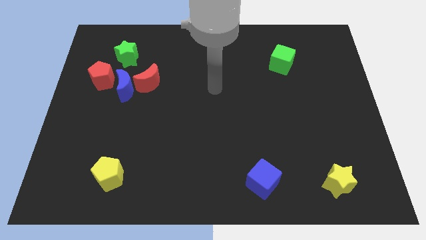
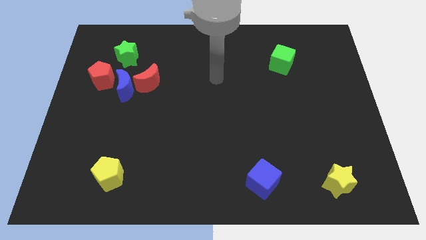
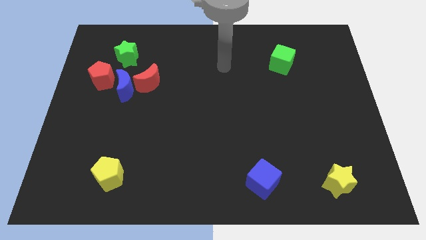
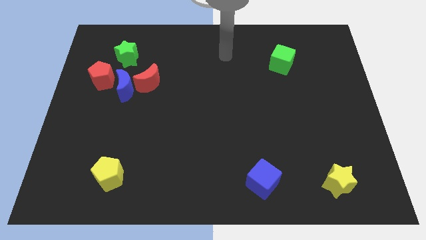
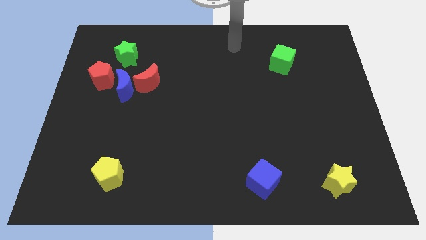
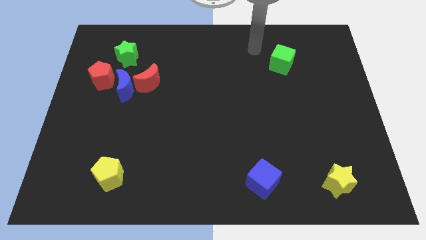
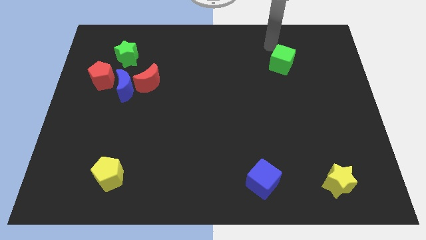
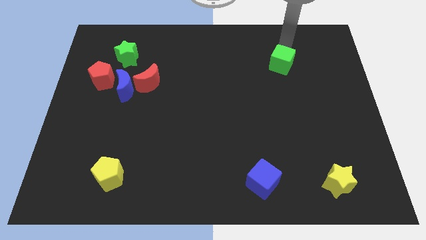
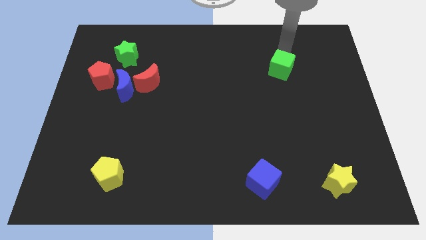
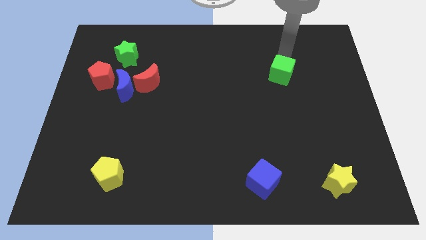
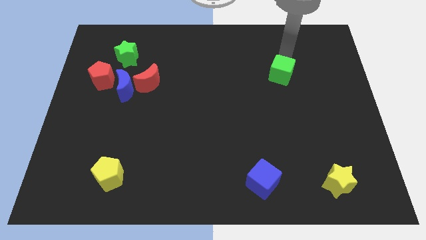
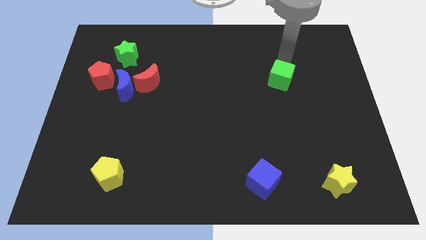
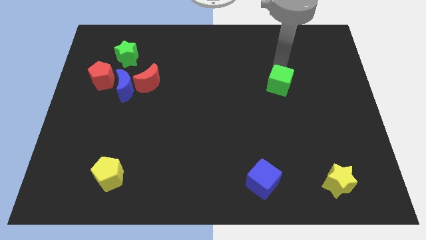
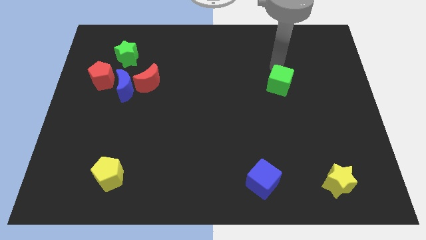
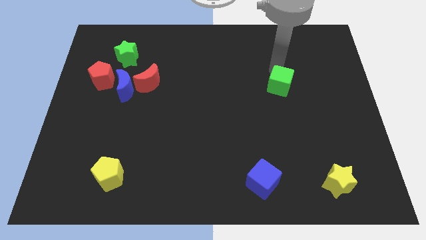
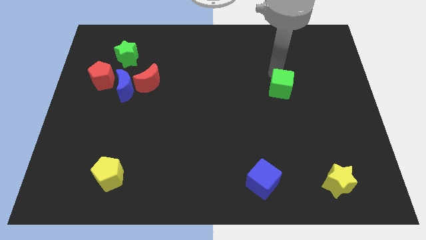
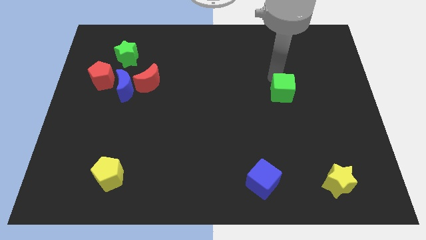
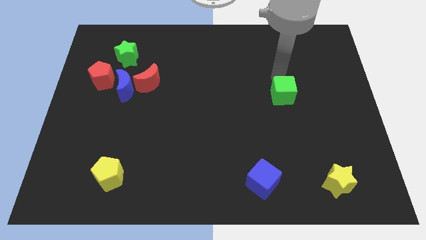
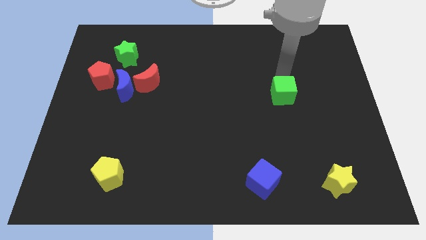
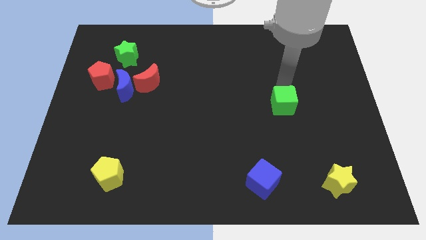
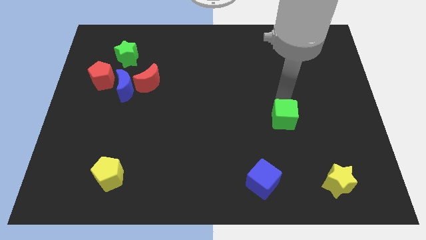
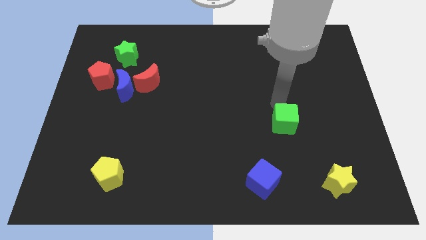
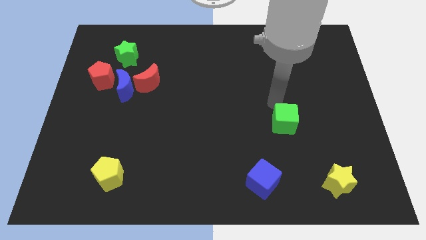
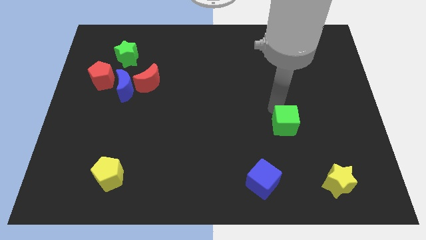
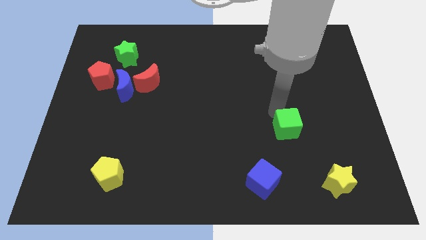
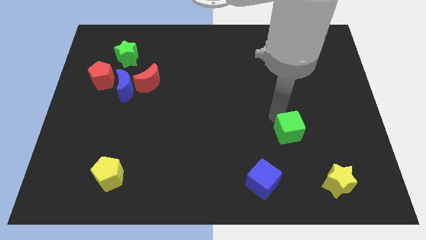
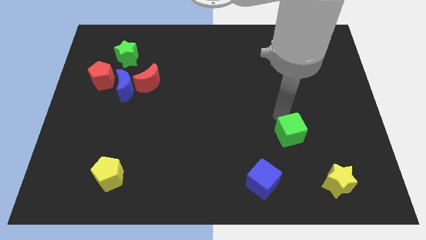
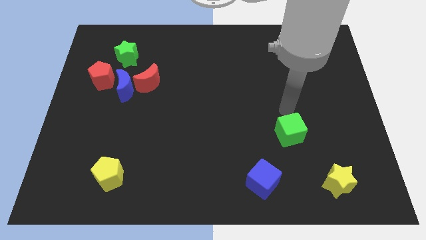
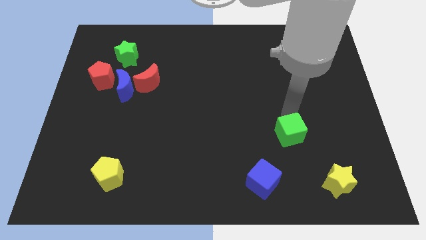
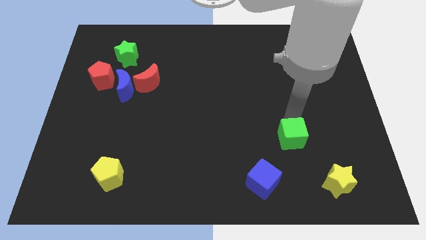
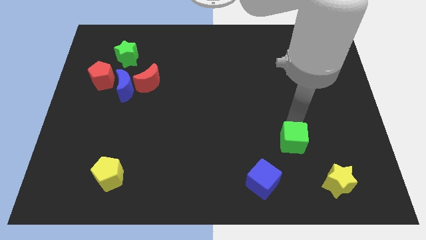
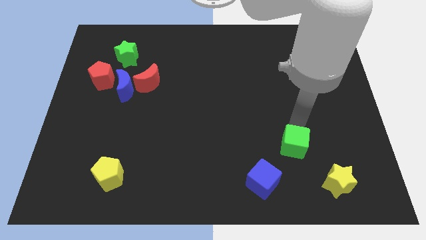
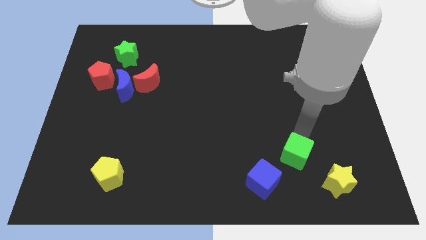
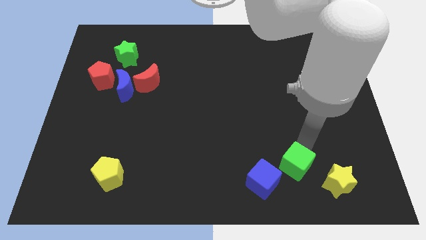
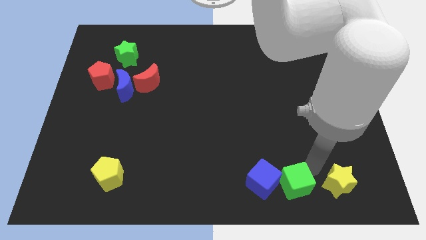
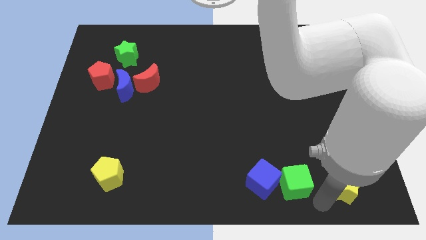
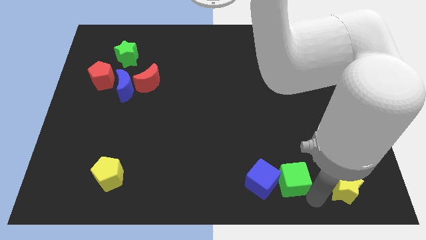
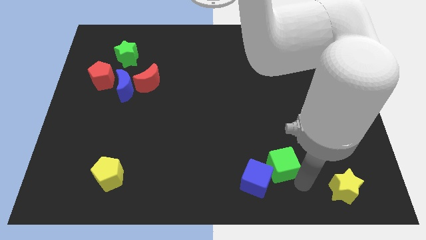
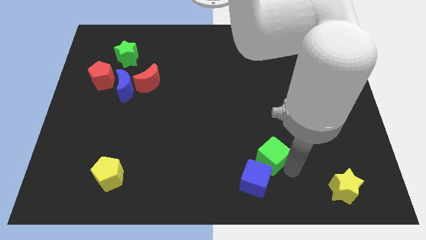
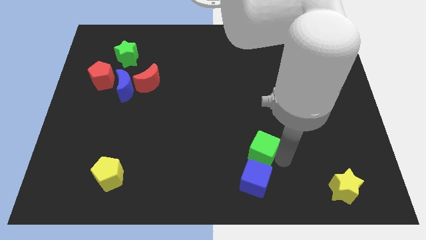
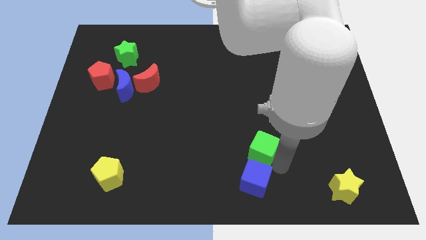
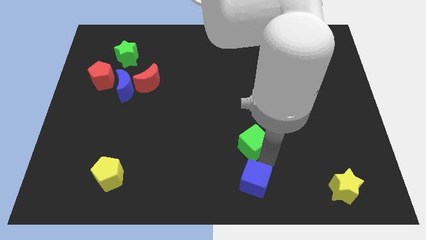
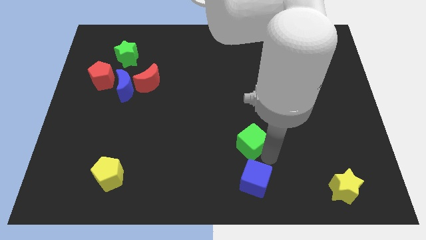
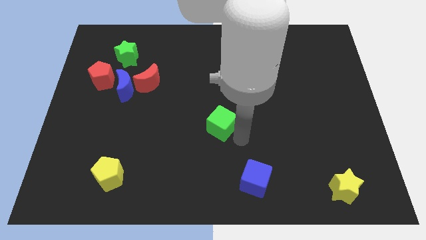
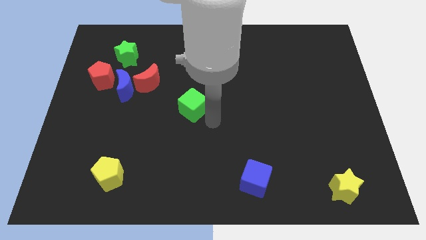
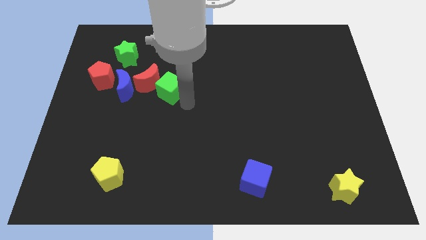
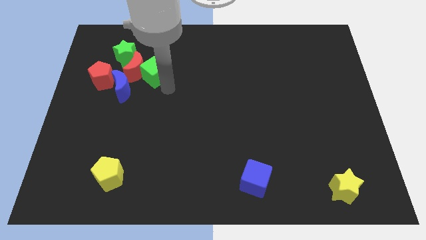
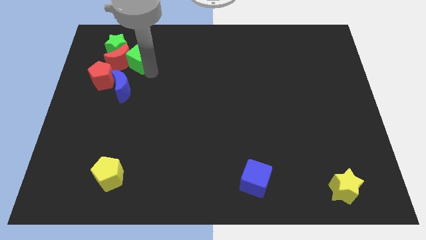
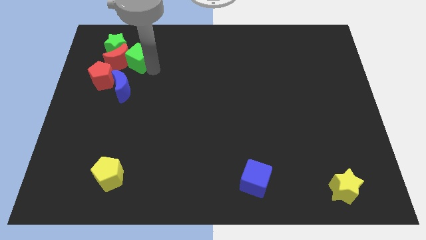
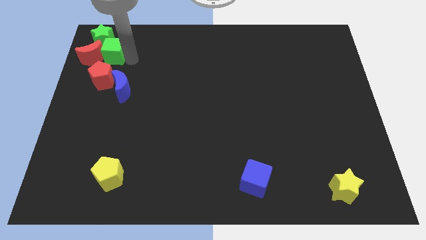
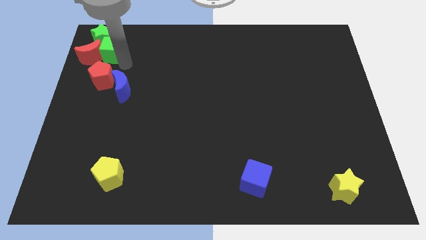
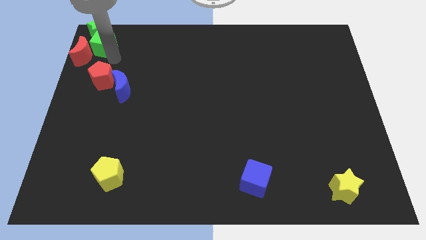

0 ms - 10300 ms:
move the green cube to the upper left corner

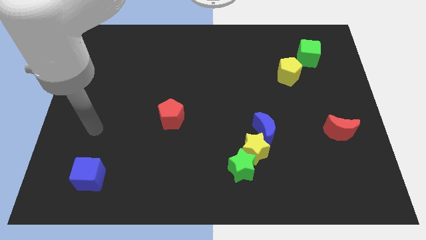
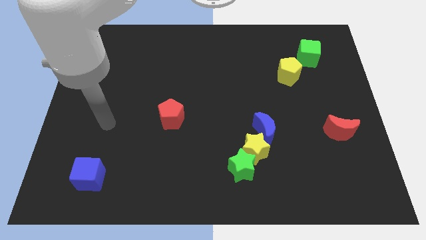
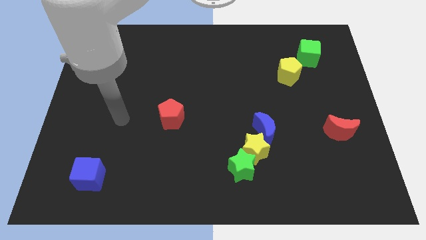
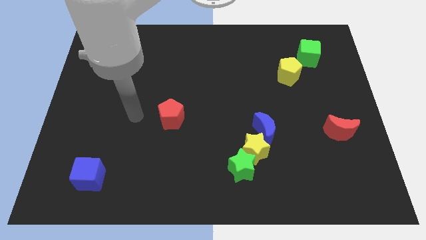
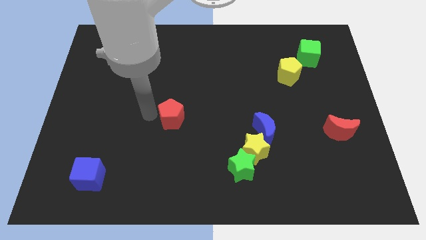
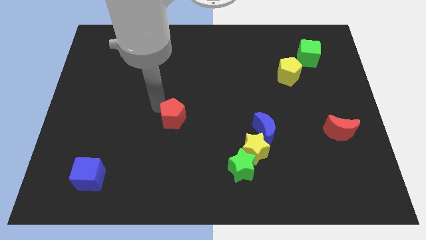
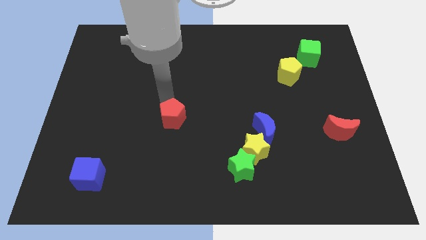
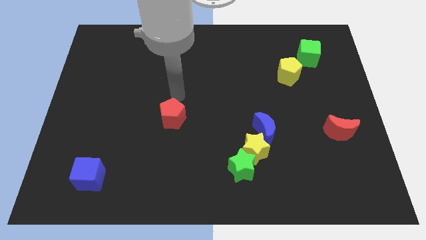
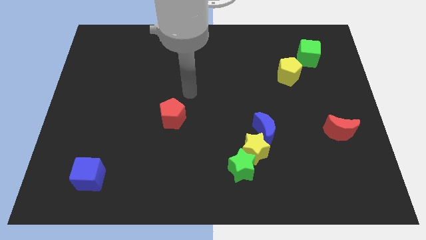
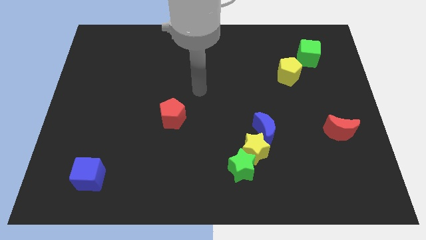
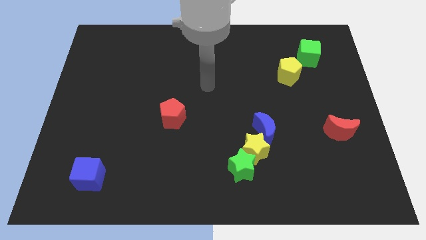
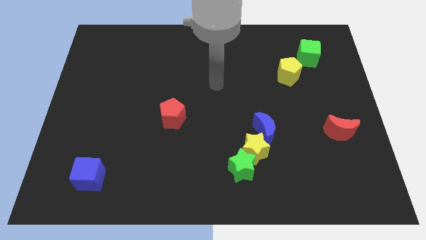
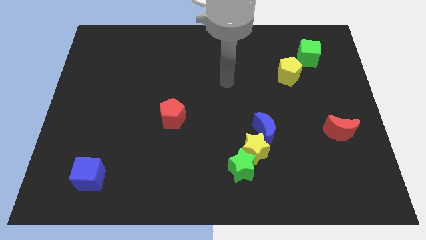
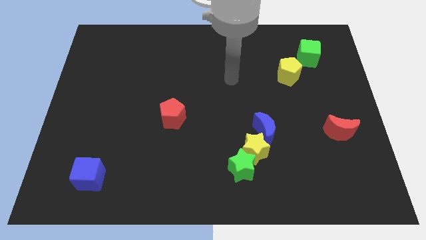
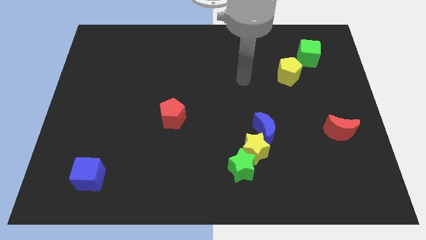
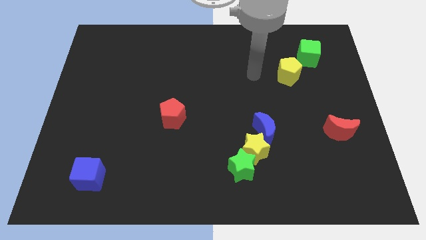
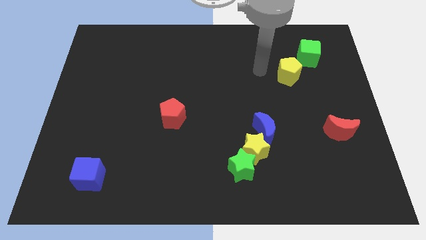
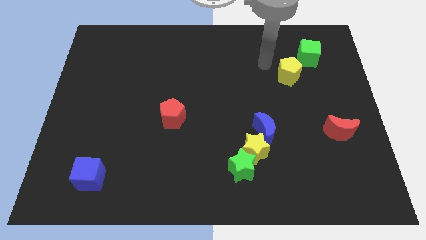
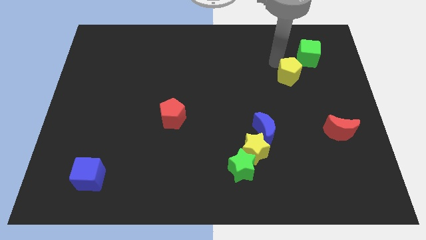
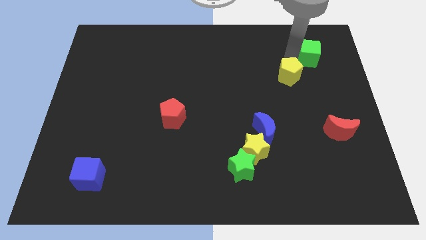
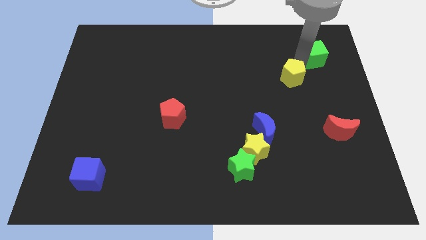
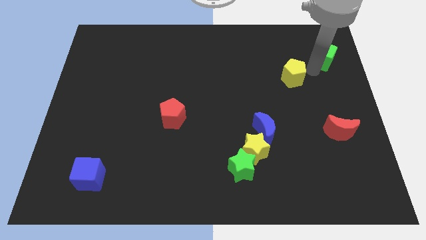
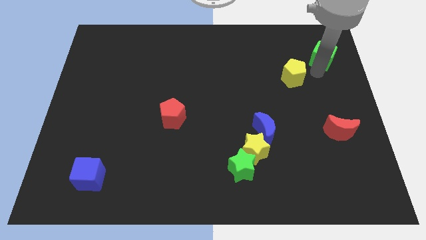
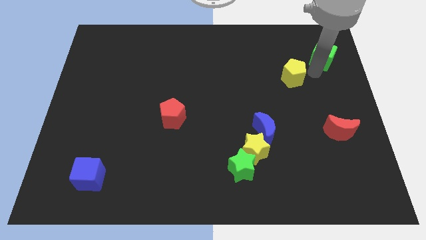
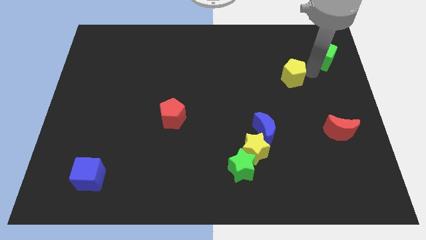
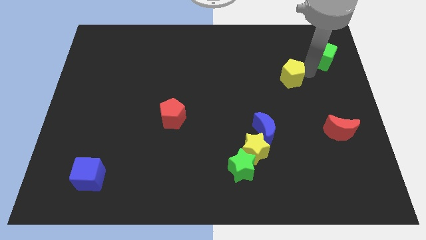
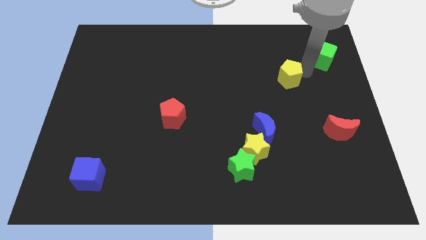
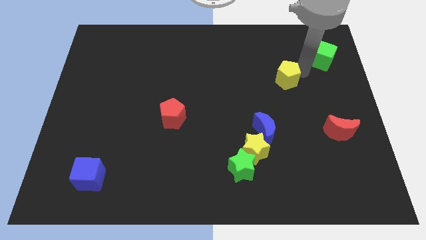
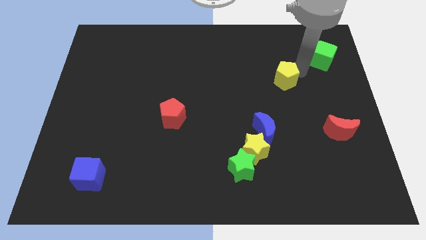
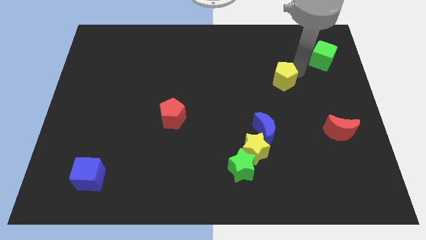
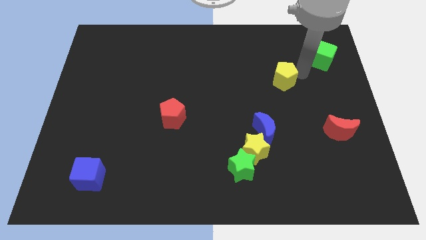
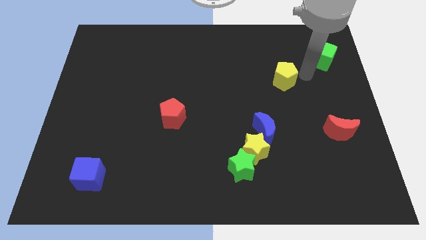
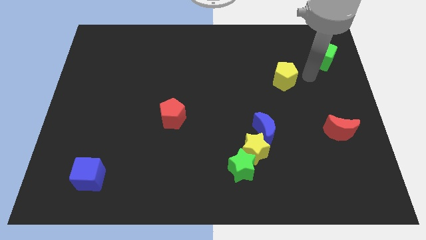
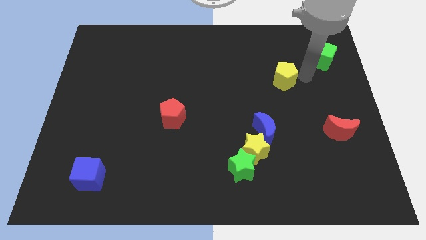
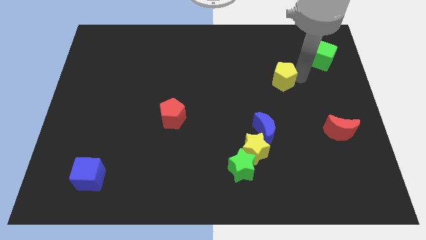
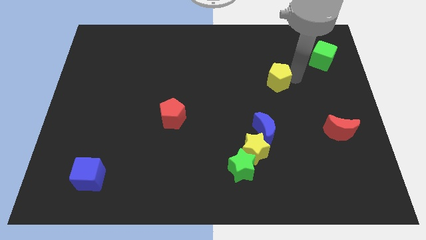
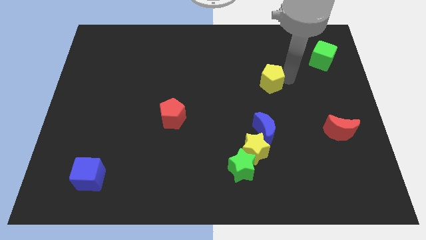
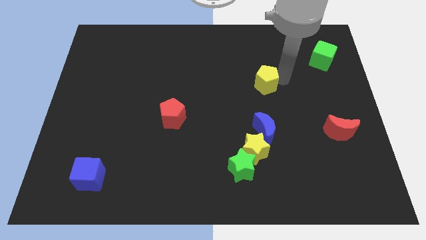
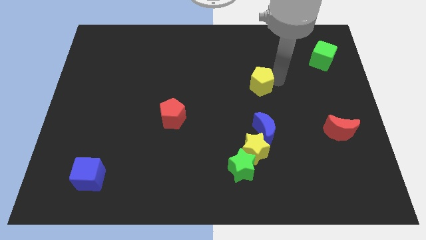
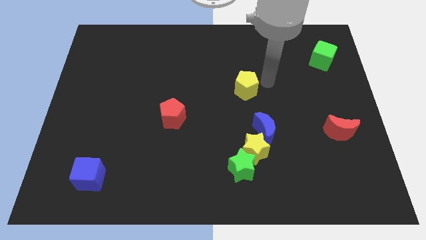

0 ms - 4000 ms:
move the yellow pentagon to the middle of the board
